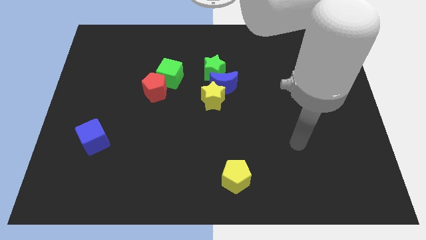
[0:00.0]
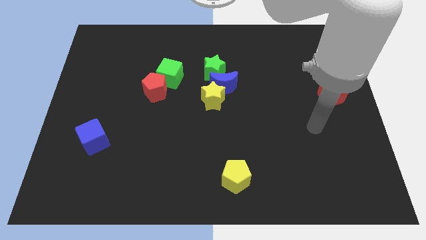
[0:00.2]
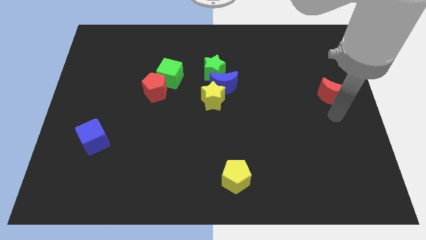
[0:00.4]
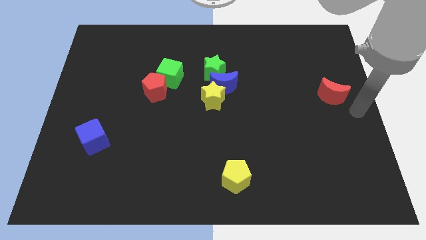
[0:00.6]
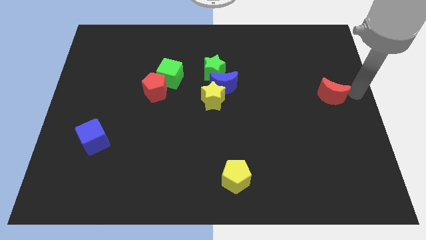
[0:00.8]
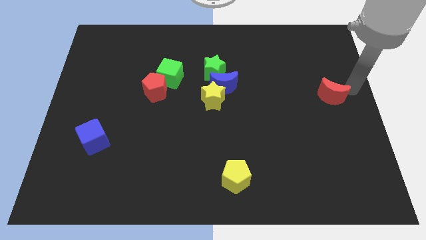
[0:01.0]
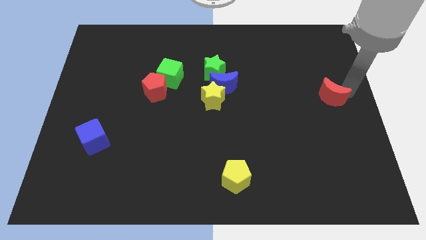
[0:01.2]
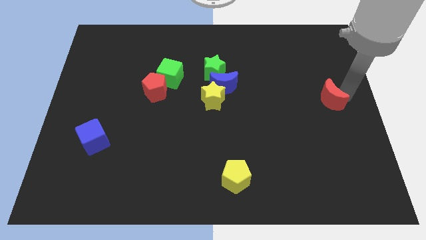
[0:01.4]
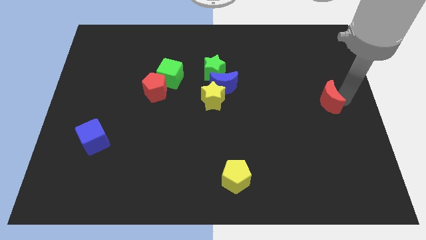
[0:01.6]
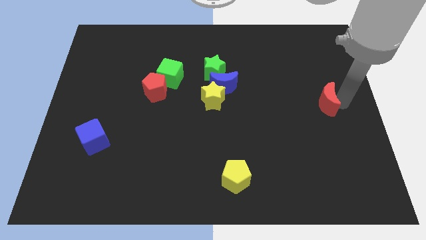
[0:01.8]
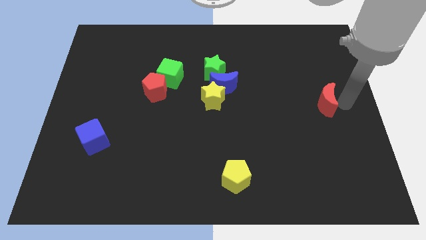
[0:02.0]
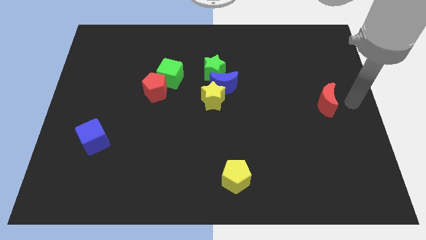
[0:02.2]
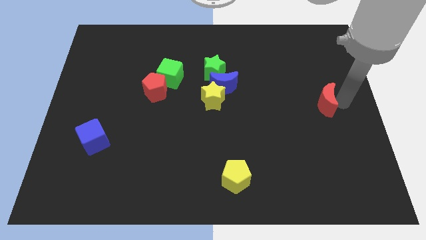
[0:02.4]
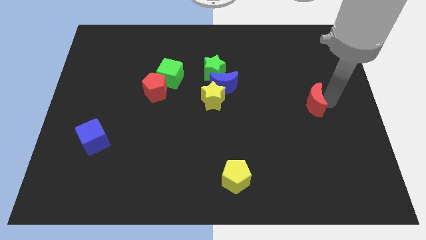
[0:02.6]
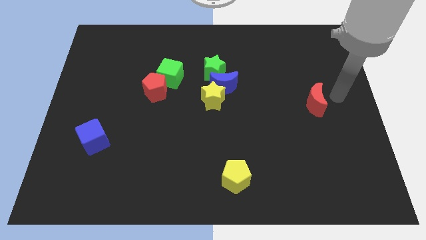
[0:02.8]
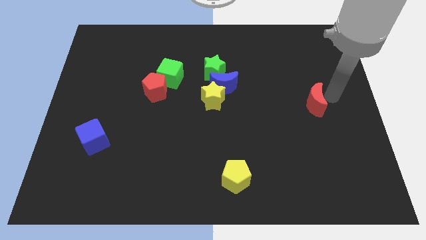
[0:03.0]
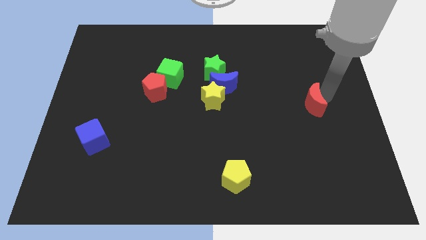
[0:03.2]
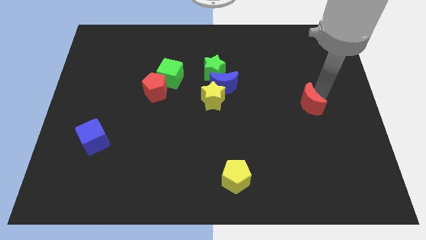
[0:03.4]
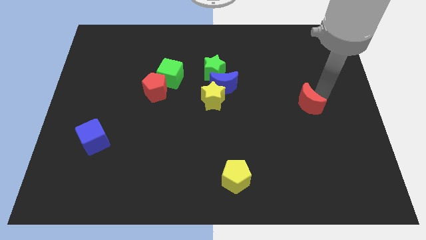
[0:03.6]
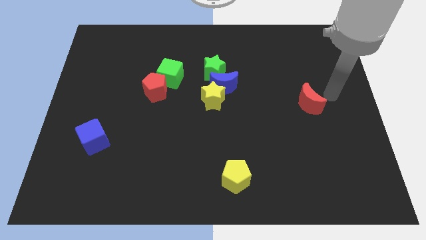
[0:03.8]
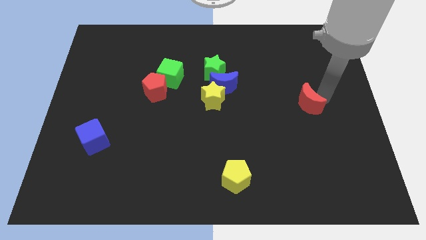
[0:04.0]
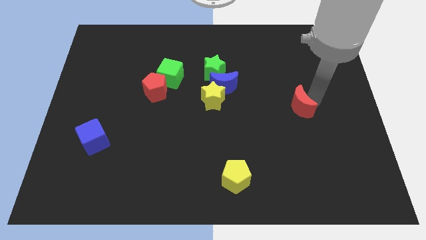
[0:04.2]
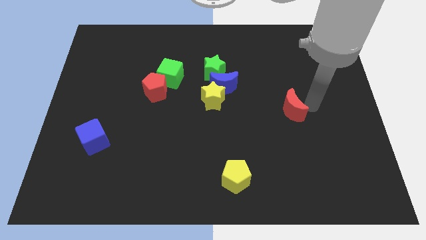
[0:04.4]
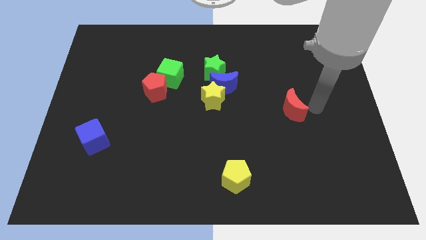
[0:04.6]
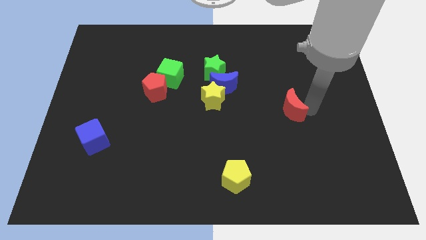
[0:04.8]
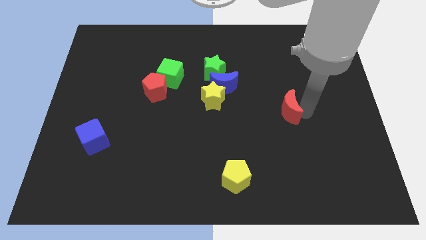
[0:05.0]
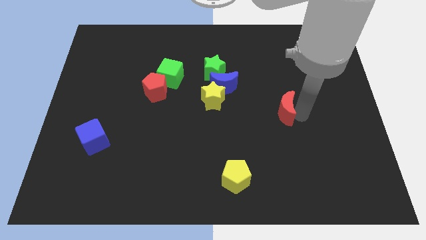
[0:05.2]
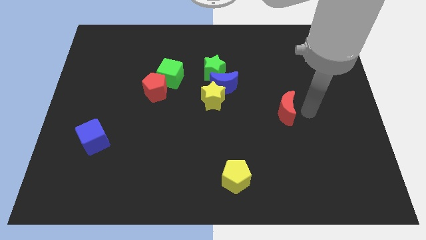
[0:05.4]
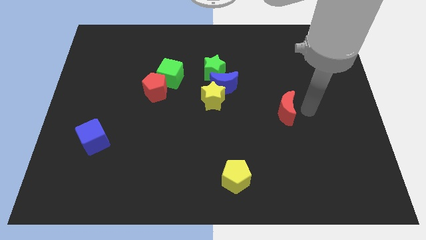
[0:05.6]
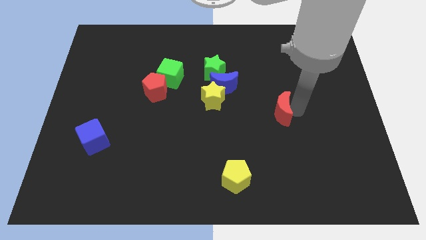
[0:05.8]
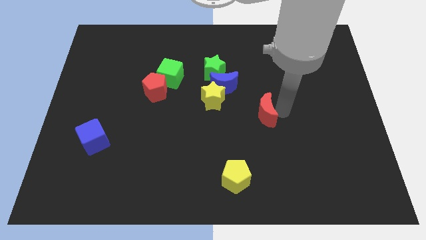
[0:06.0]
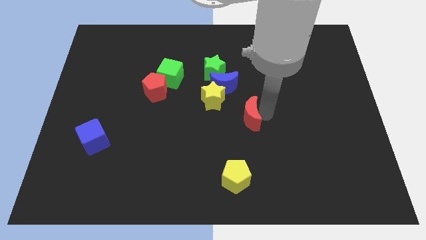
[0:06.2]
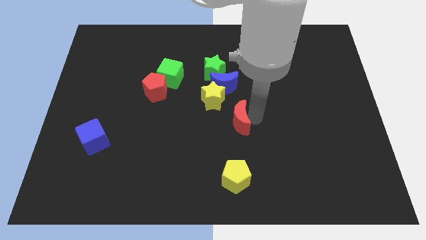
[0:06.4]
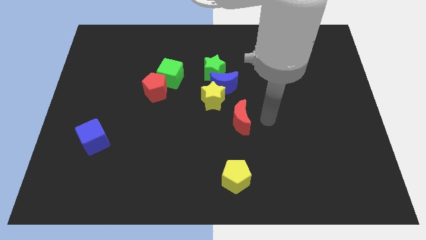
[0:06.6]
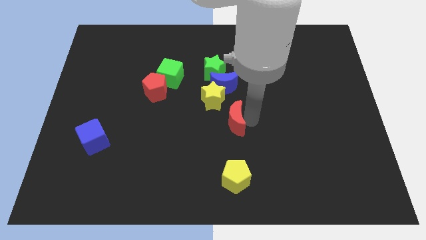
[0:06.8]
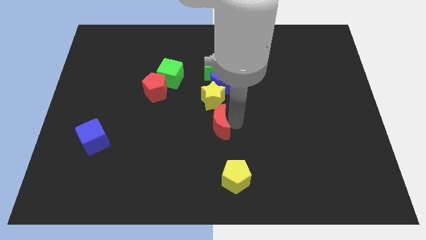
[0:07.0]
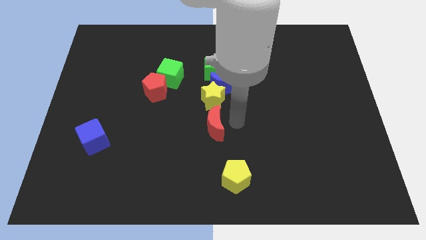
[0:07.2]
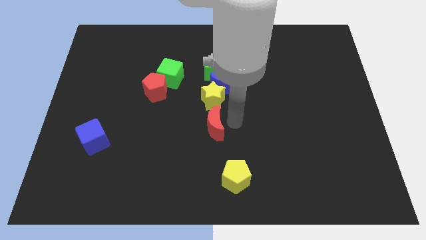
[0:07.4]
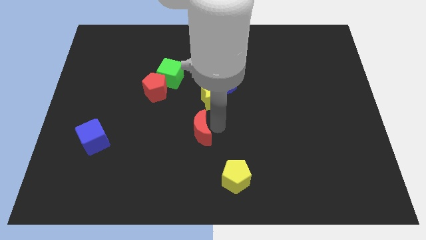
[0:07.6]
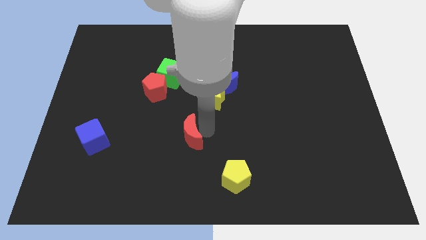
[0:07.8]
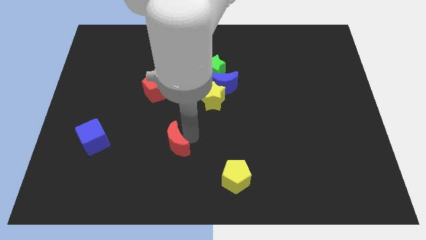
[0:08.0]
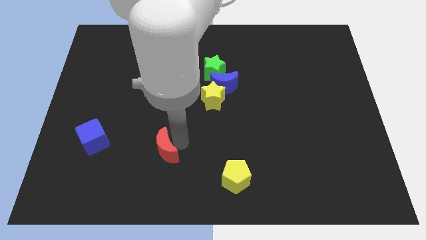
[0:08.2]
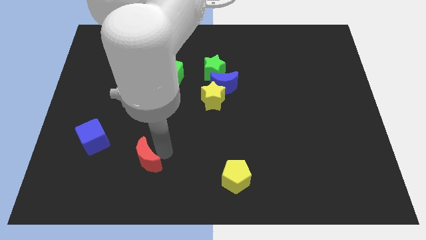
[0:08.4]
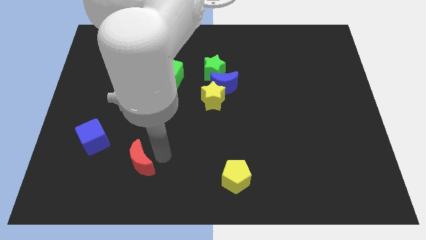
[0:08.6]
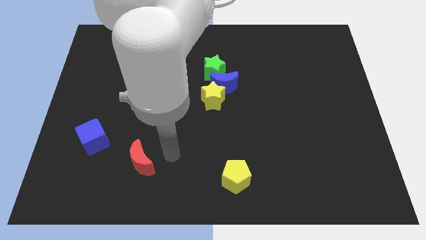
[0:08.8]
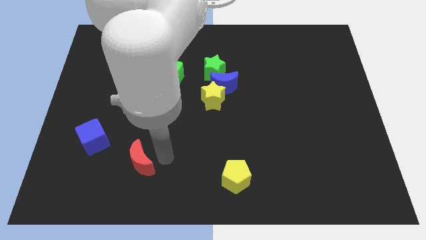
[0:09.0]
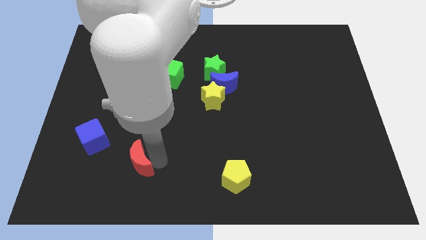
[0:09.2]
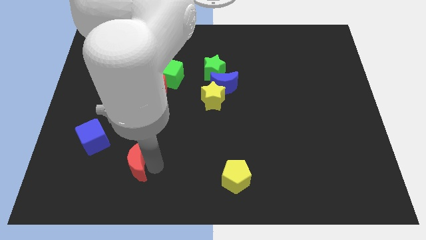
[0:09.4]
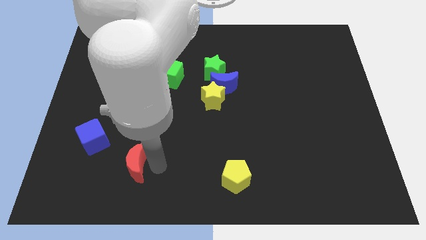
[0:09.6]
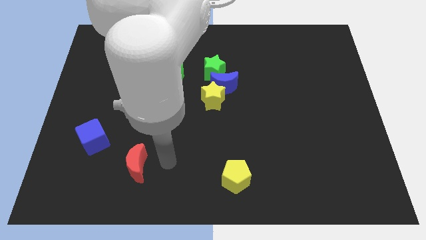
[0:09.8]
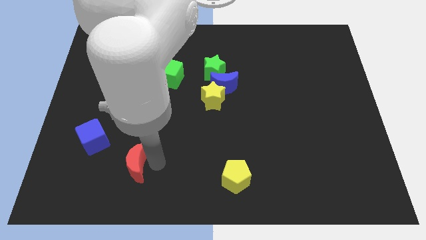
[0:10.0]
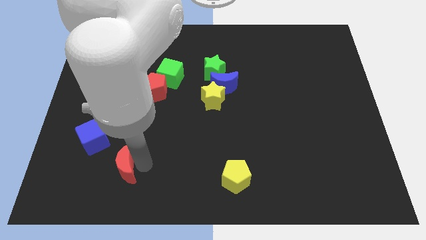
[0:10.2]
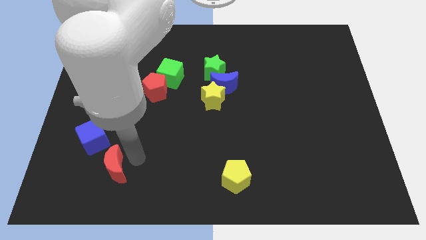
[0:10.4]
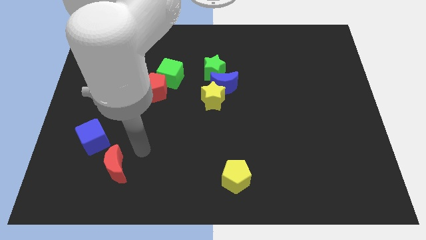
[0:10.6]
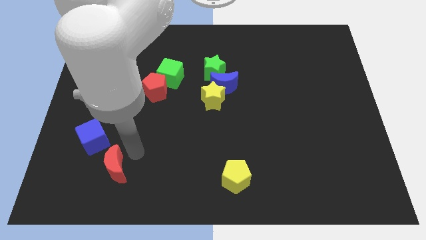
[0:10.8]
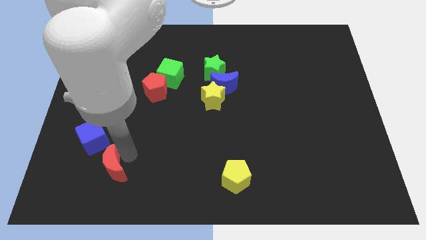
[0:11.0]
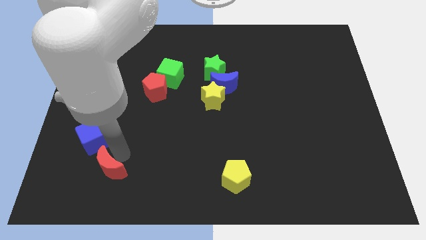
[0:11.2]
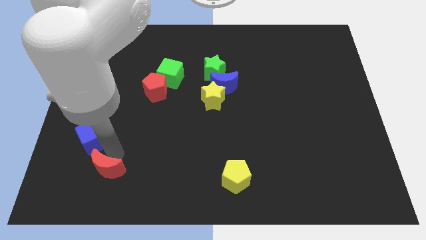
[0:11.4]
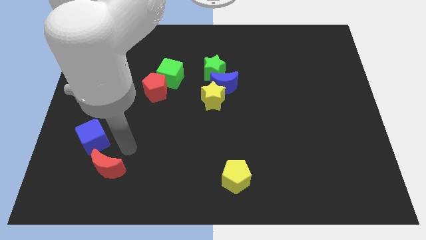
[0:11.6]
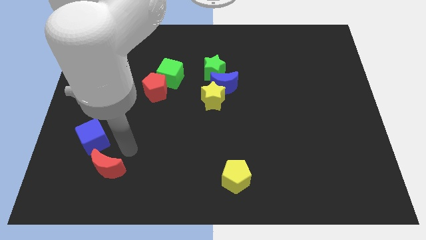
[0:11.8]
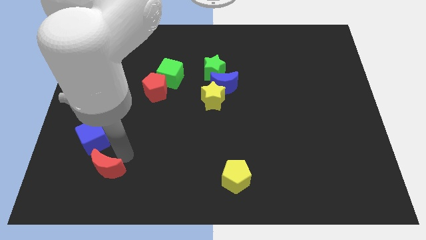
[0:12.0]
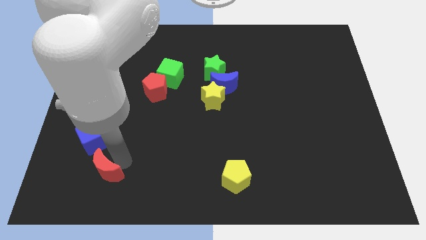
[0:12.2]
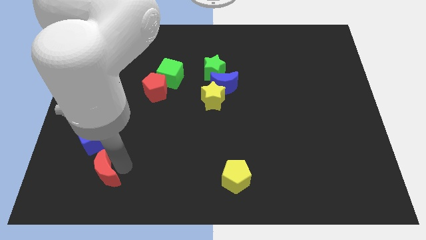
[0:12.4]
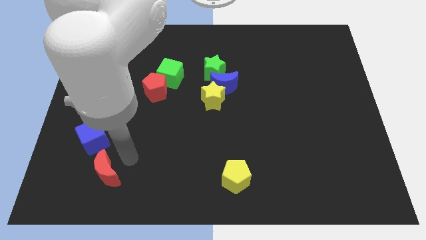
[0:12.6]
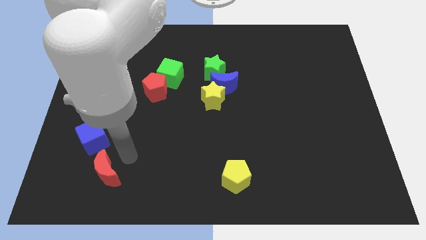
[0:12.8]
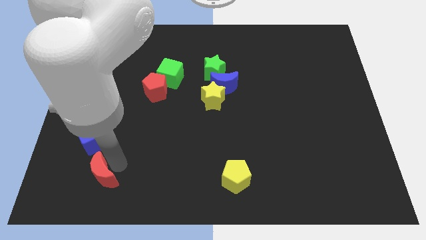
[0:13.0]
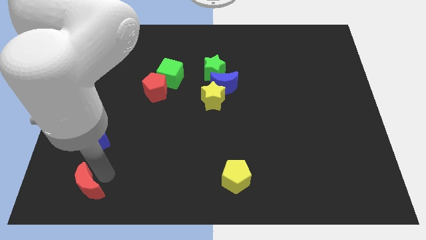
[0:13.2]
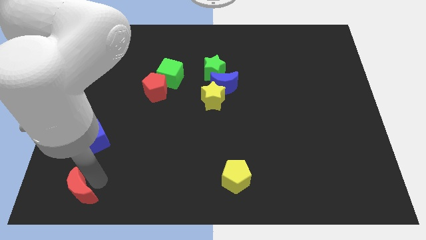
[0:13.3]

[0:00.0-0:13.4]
push the red moon to the bottom left

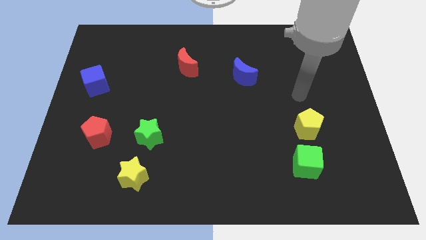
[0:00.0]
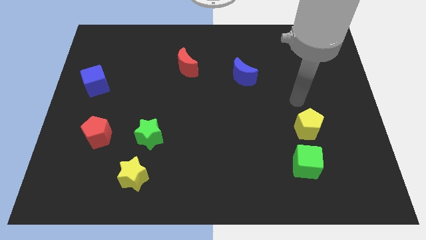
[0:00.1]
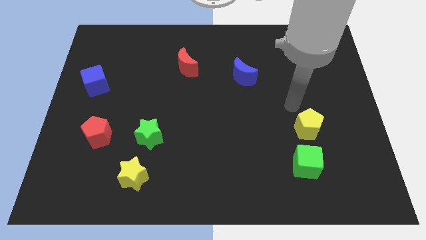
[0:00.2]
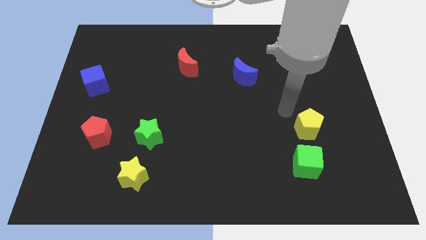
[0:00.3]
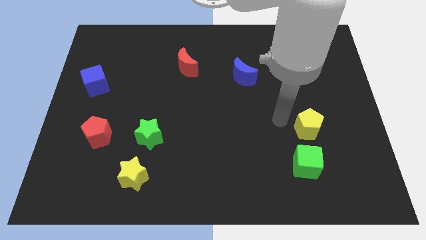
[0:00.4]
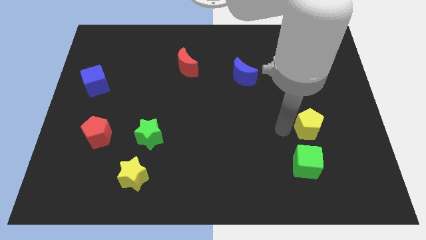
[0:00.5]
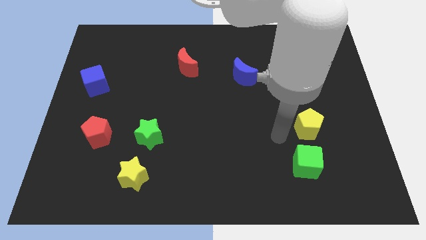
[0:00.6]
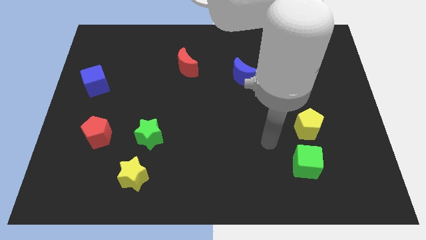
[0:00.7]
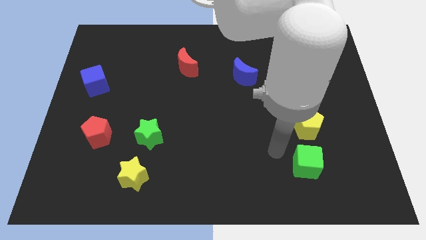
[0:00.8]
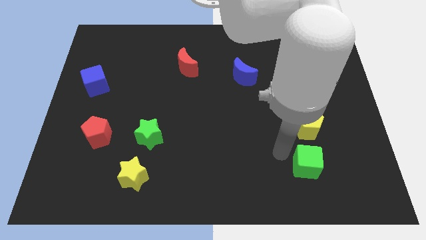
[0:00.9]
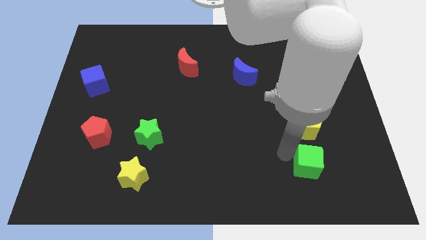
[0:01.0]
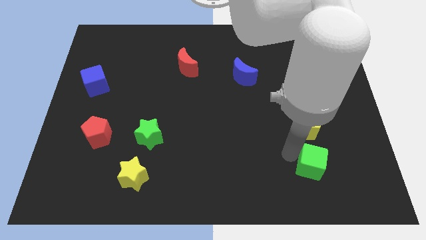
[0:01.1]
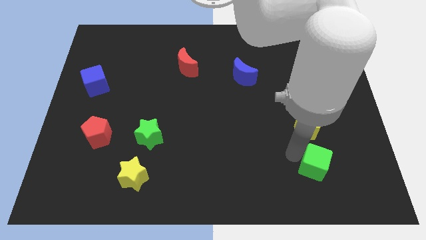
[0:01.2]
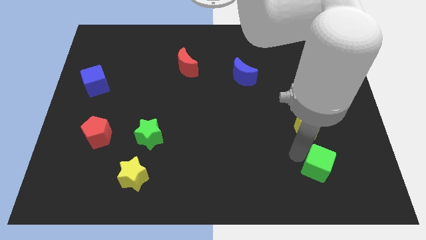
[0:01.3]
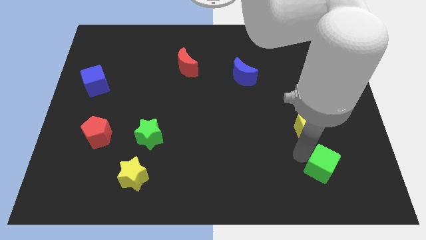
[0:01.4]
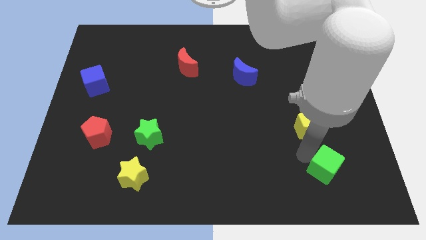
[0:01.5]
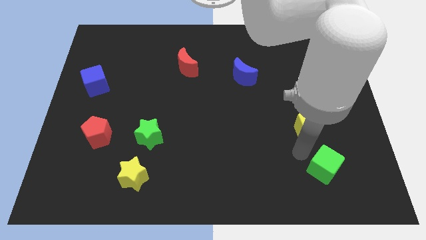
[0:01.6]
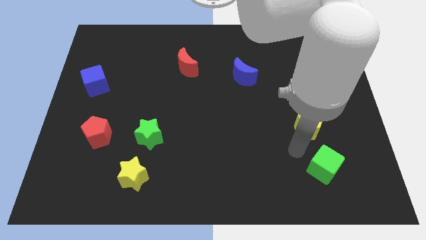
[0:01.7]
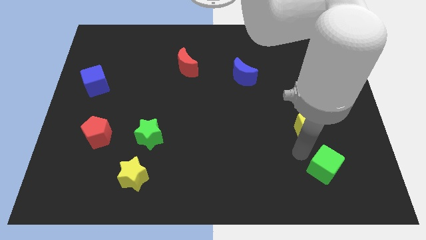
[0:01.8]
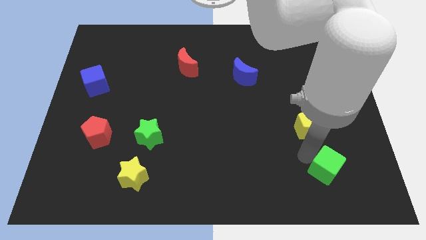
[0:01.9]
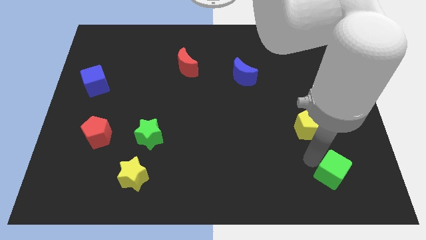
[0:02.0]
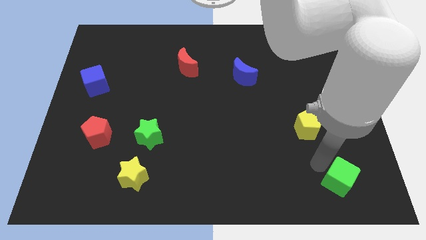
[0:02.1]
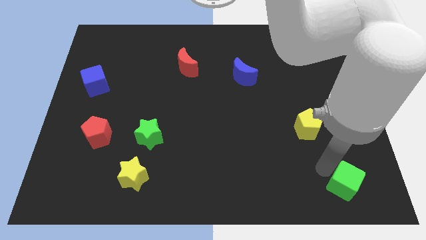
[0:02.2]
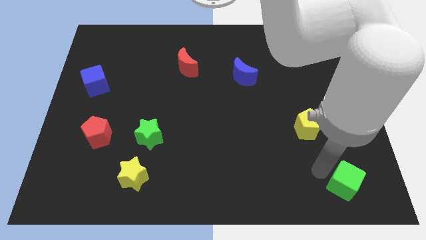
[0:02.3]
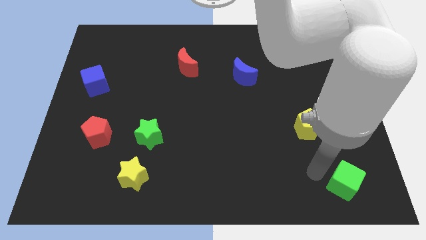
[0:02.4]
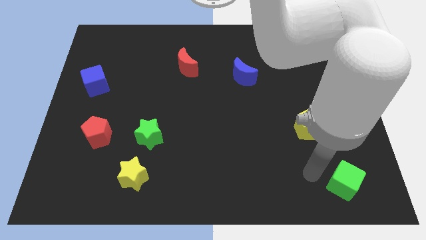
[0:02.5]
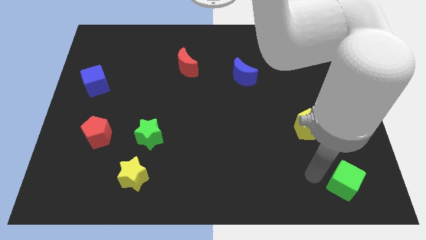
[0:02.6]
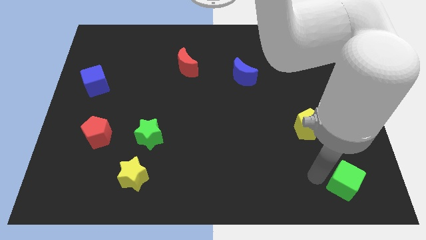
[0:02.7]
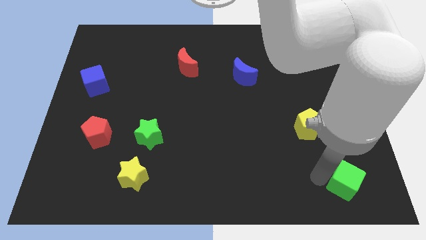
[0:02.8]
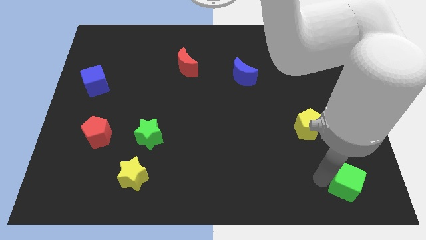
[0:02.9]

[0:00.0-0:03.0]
put the green cube to the lower right corner
